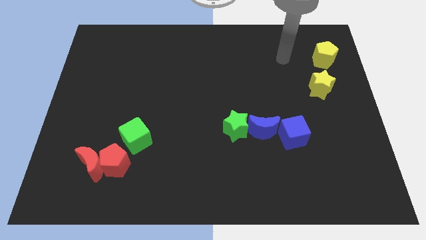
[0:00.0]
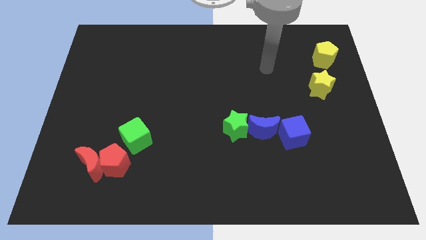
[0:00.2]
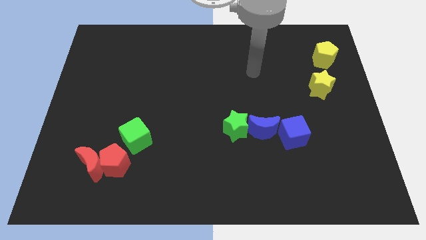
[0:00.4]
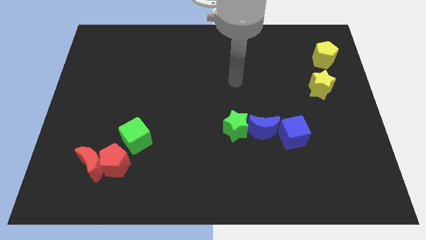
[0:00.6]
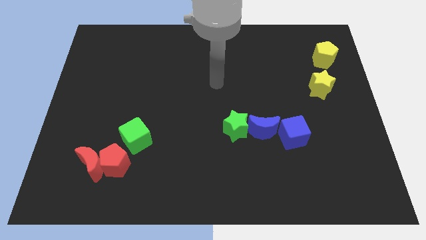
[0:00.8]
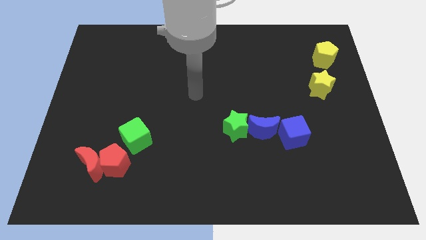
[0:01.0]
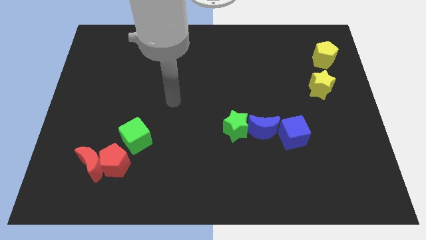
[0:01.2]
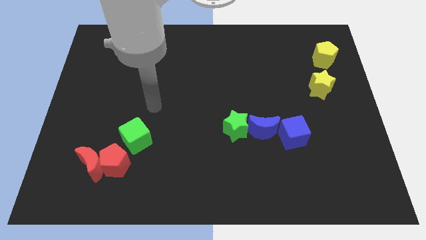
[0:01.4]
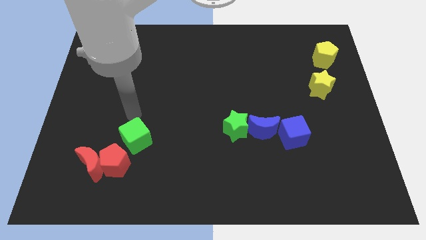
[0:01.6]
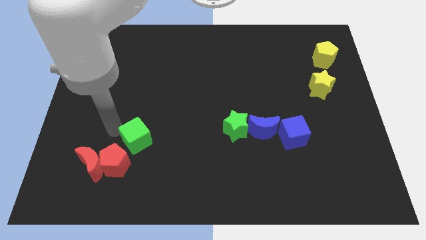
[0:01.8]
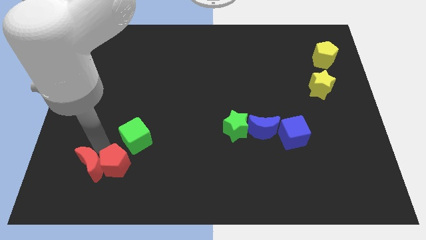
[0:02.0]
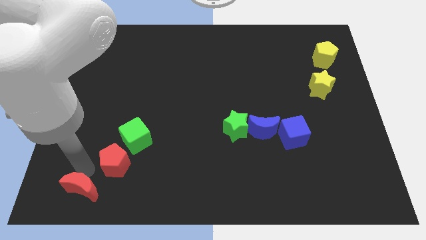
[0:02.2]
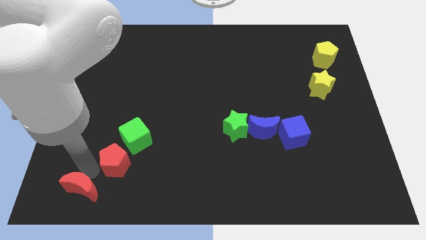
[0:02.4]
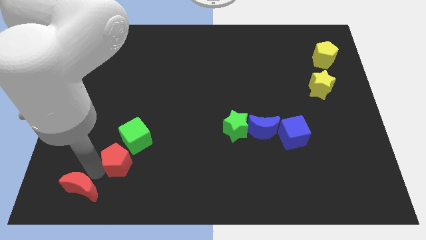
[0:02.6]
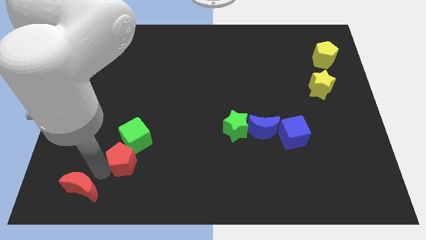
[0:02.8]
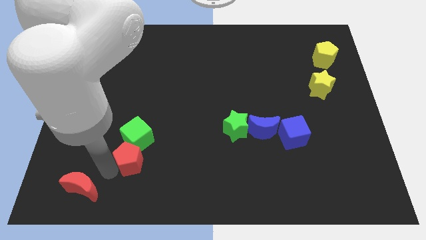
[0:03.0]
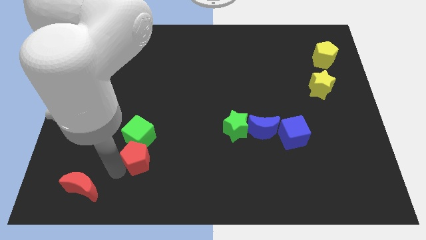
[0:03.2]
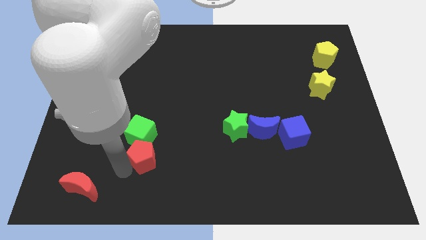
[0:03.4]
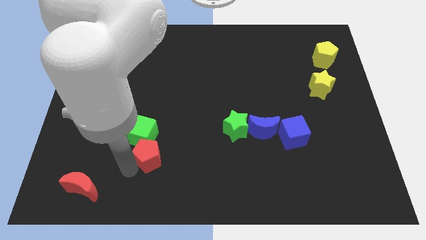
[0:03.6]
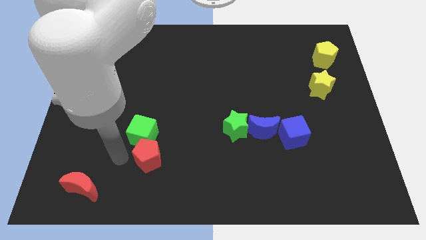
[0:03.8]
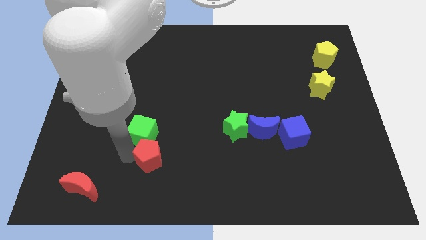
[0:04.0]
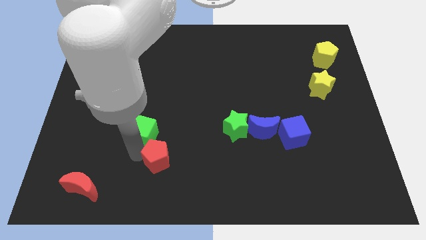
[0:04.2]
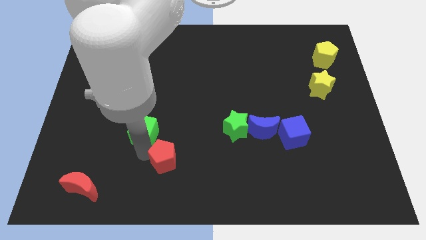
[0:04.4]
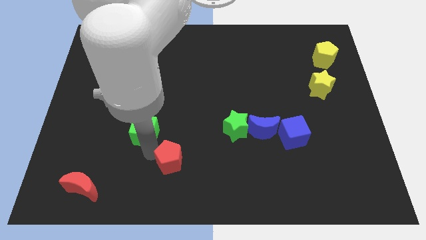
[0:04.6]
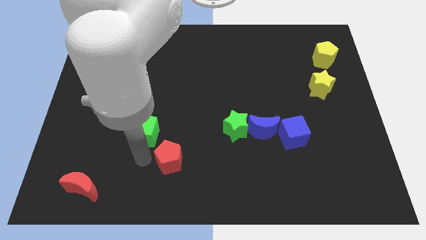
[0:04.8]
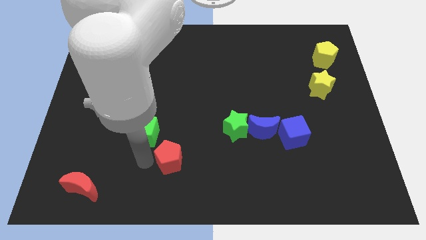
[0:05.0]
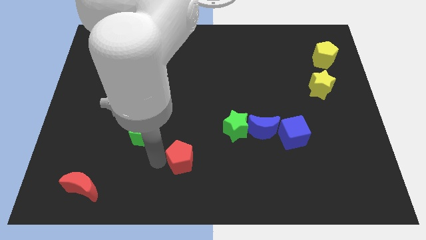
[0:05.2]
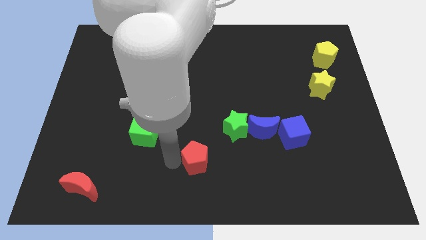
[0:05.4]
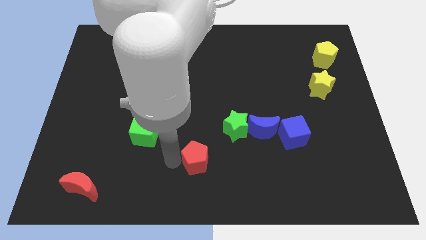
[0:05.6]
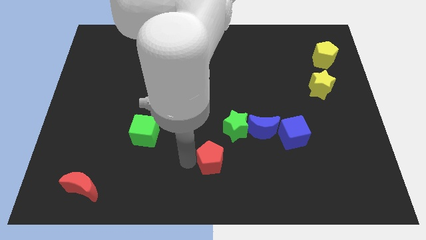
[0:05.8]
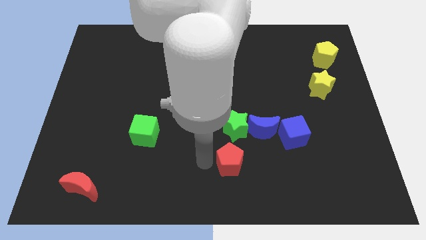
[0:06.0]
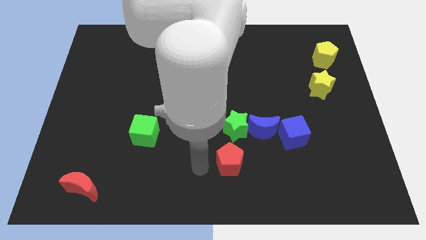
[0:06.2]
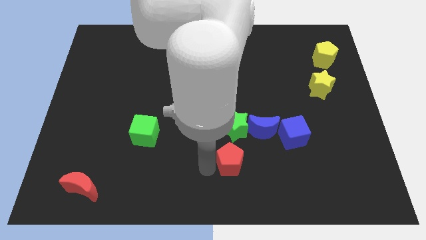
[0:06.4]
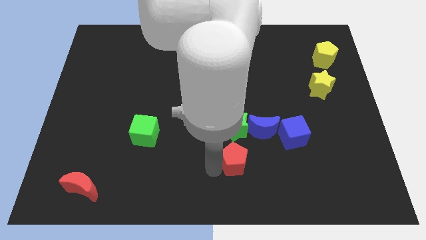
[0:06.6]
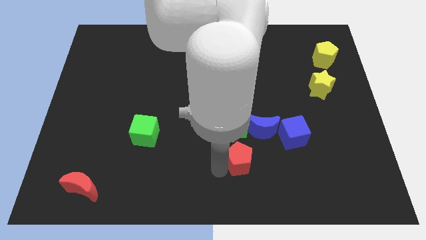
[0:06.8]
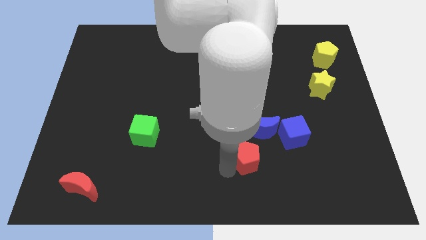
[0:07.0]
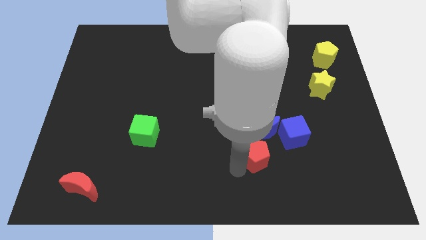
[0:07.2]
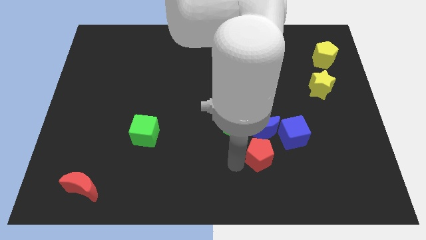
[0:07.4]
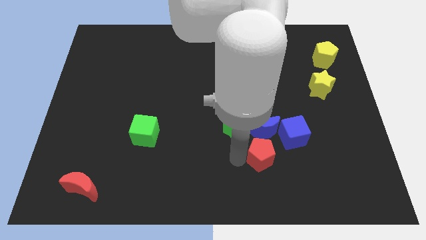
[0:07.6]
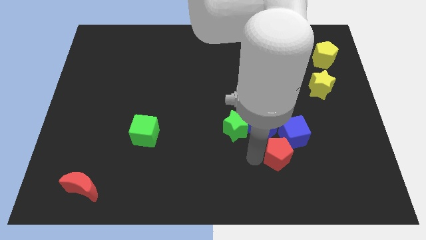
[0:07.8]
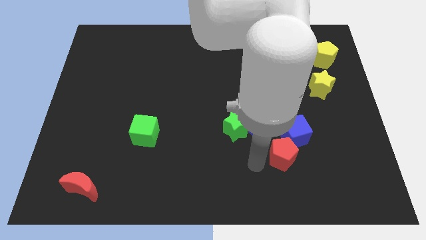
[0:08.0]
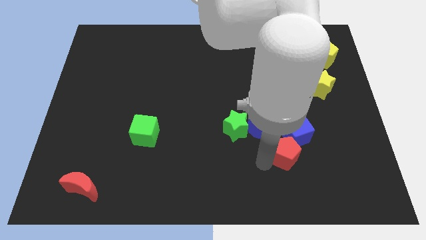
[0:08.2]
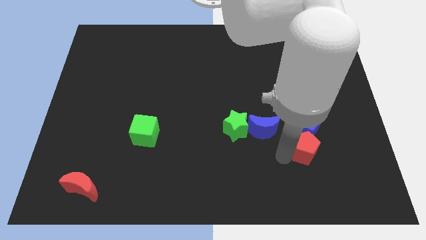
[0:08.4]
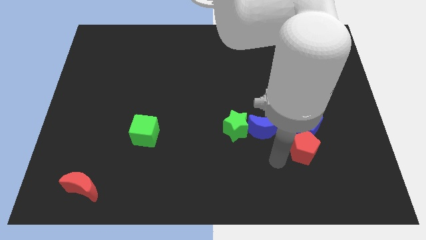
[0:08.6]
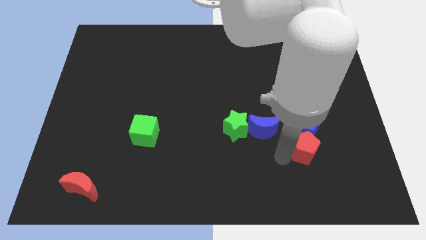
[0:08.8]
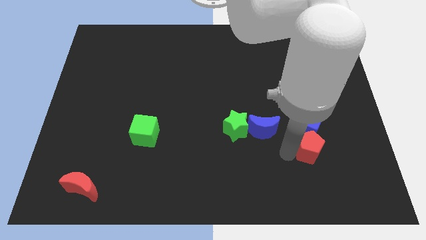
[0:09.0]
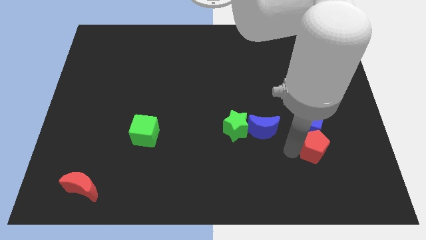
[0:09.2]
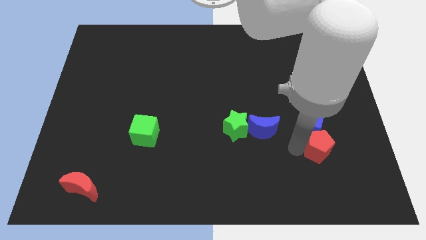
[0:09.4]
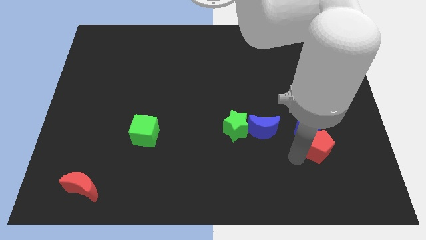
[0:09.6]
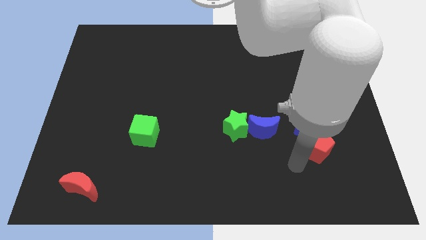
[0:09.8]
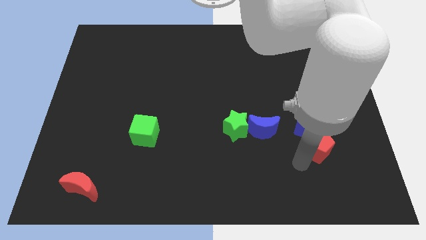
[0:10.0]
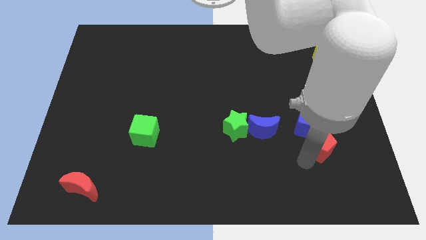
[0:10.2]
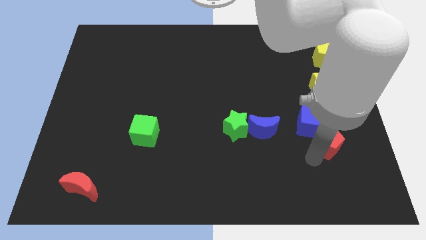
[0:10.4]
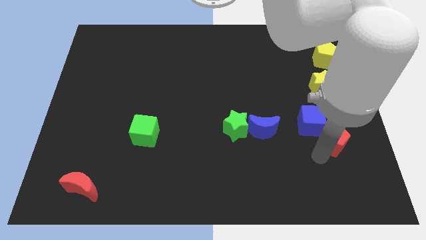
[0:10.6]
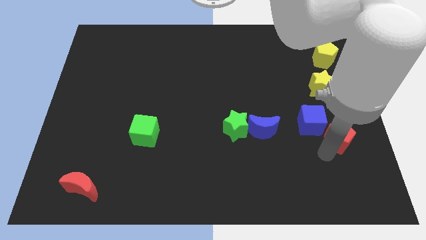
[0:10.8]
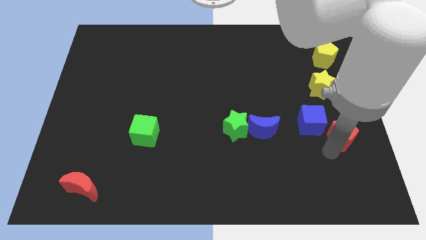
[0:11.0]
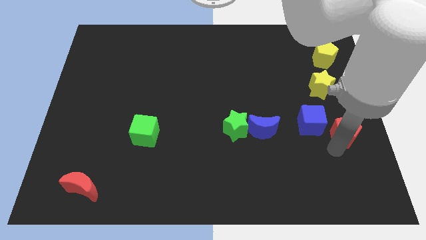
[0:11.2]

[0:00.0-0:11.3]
slide the red pentagon to the right side

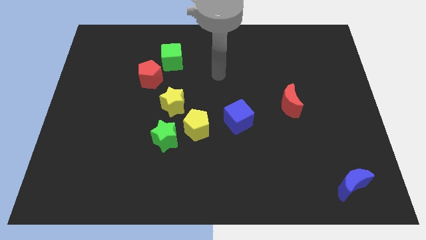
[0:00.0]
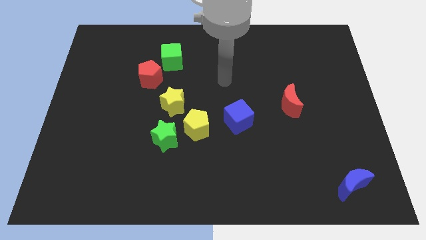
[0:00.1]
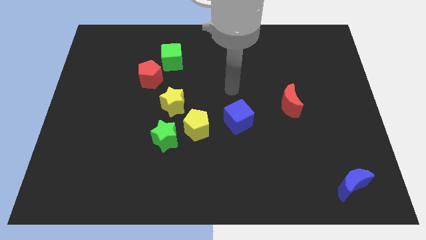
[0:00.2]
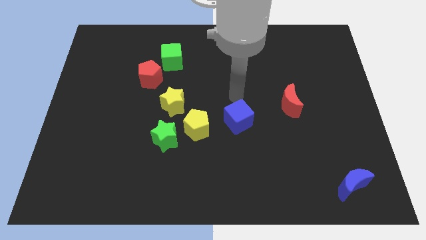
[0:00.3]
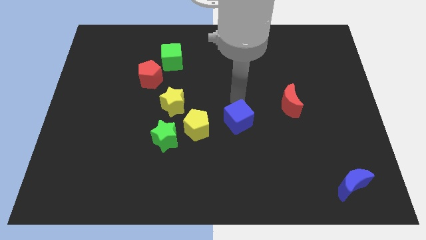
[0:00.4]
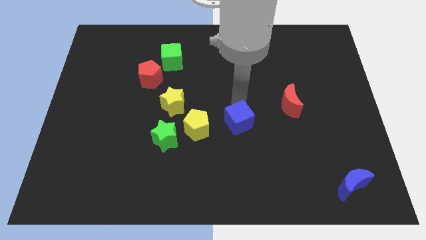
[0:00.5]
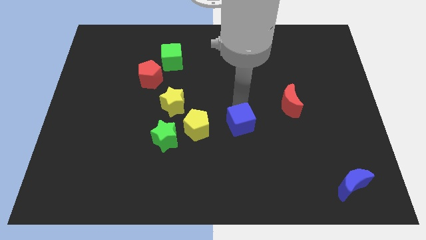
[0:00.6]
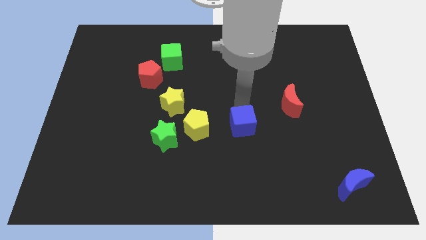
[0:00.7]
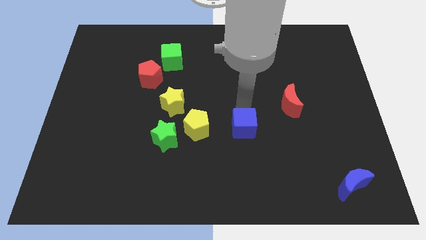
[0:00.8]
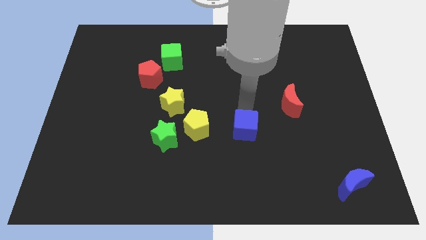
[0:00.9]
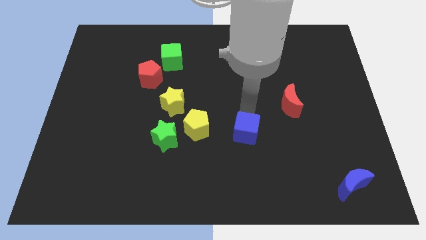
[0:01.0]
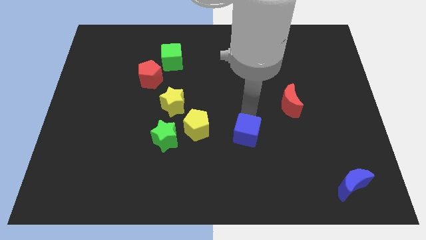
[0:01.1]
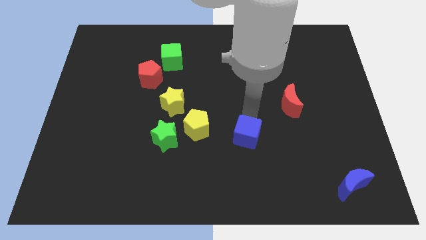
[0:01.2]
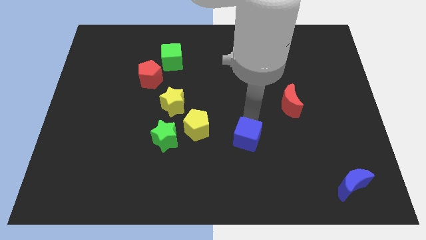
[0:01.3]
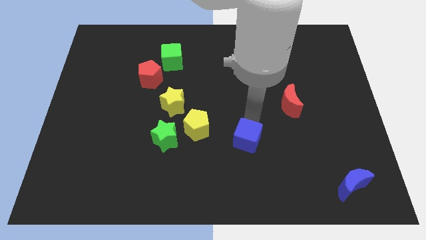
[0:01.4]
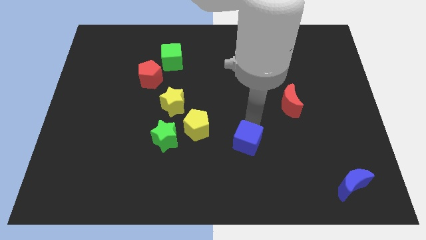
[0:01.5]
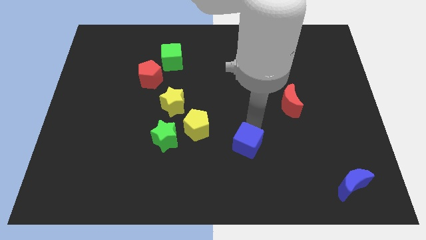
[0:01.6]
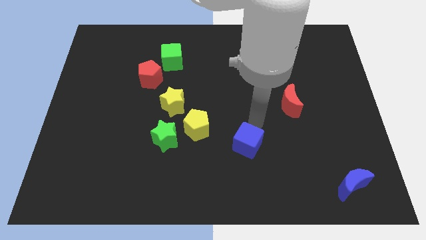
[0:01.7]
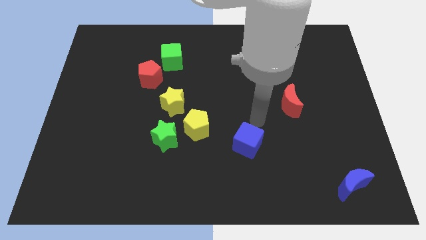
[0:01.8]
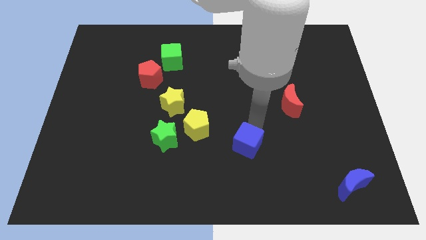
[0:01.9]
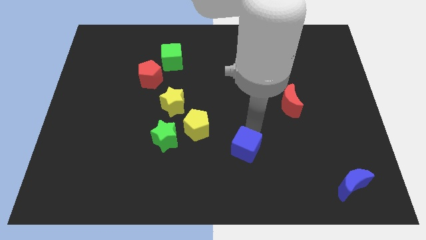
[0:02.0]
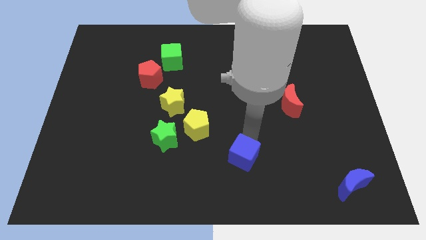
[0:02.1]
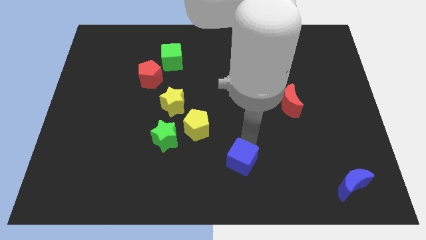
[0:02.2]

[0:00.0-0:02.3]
move the blue cube to the bottom
